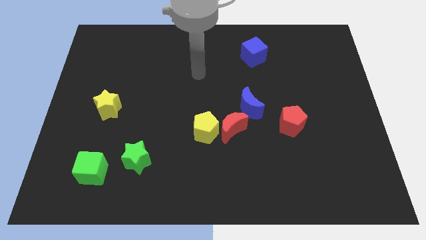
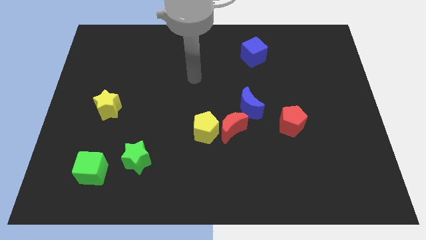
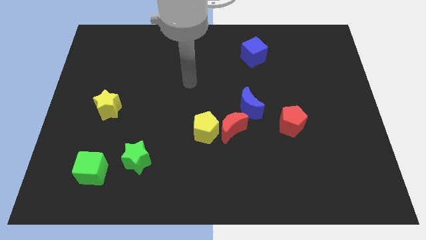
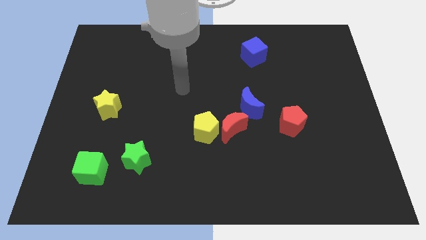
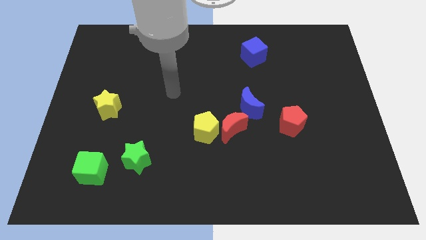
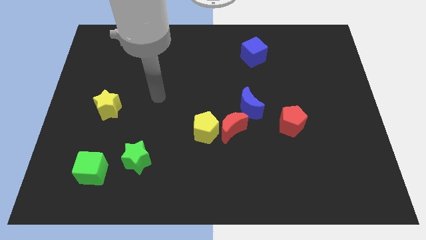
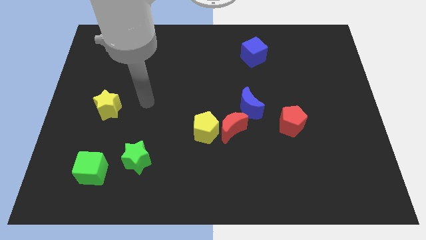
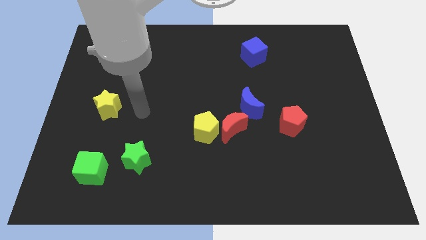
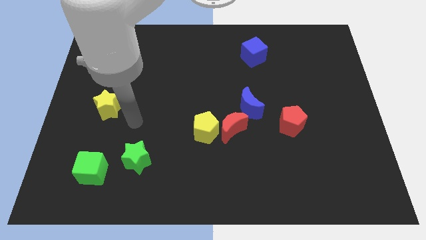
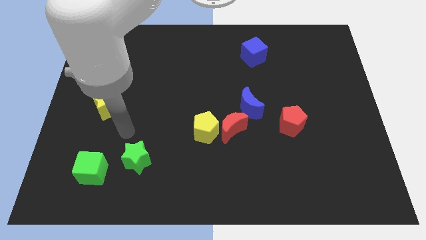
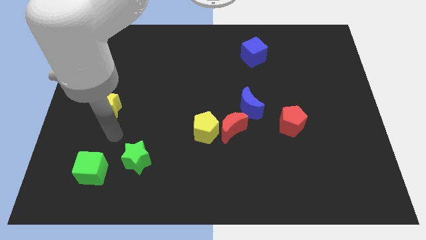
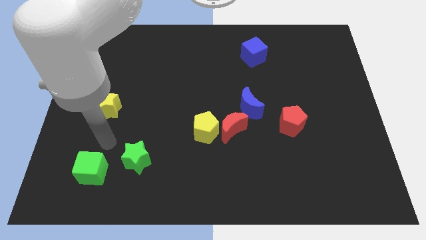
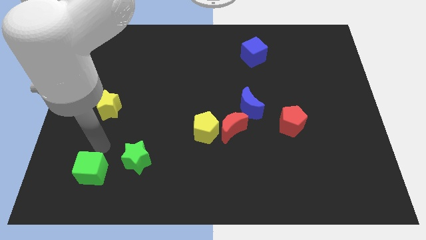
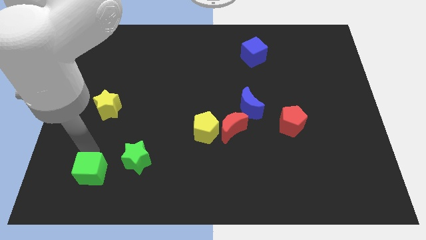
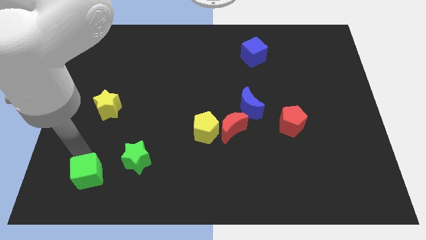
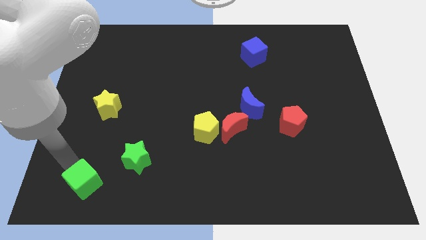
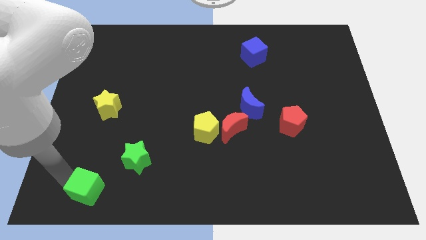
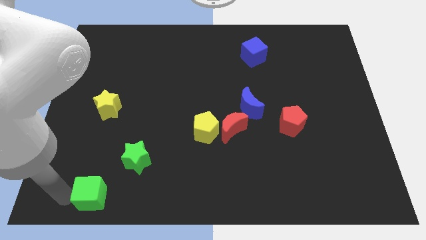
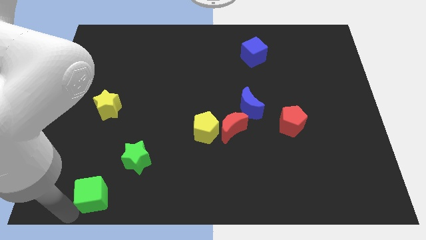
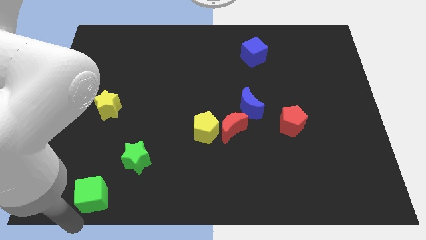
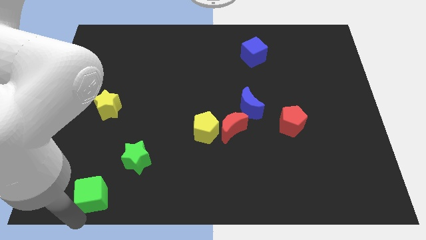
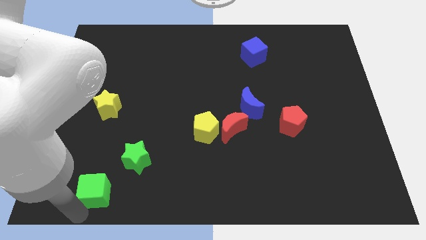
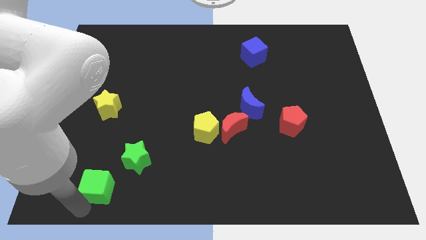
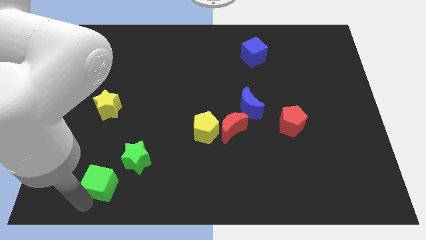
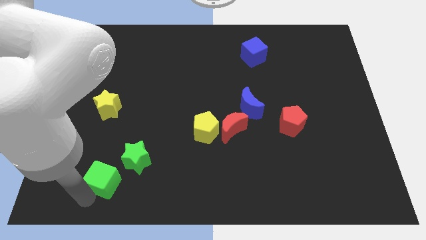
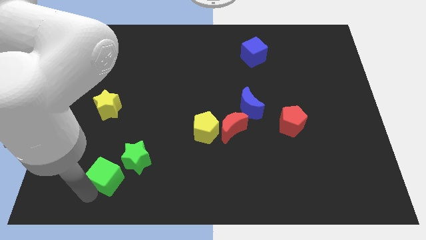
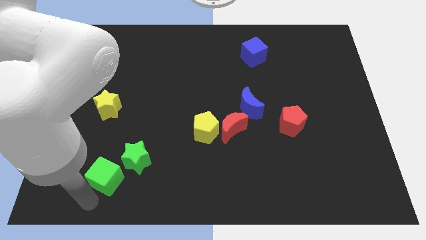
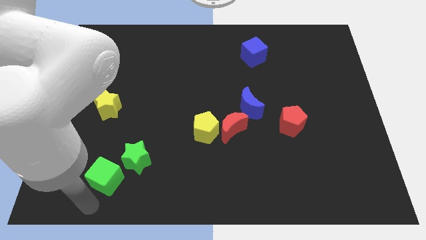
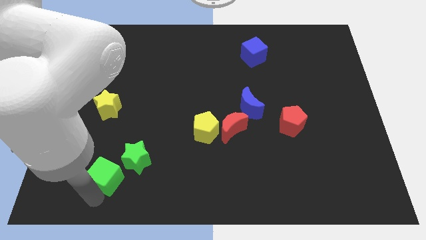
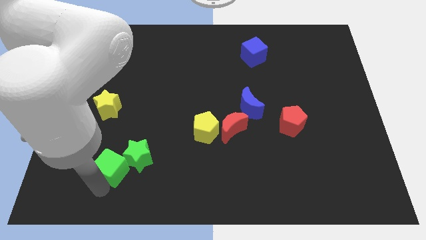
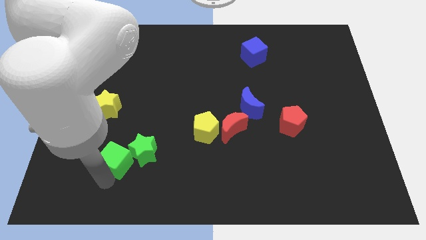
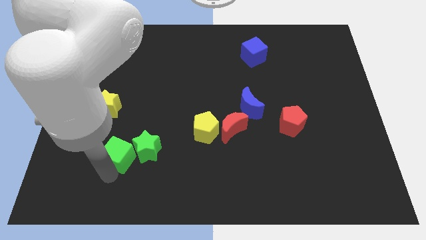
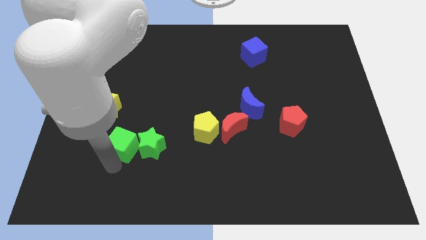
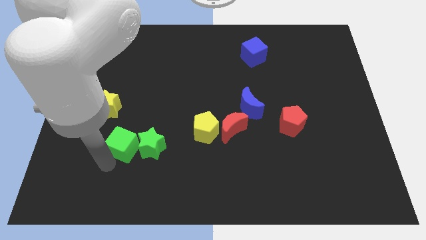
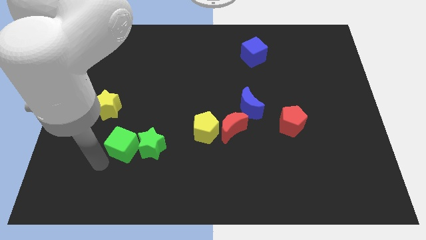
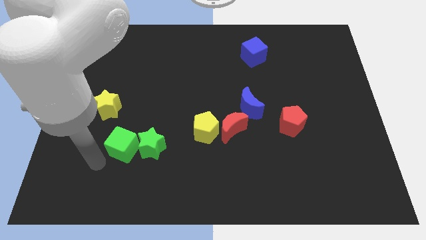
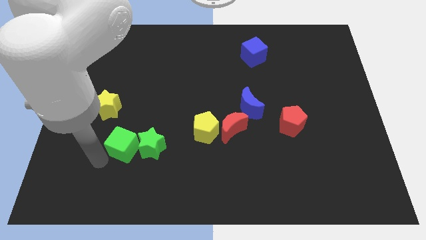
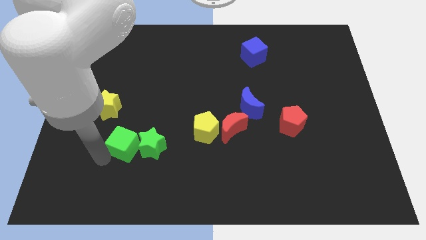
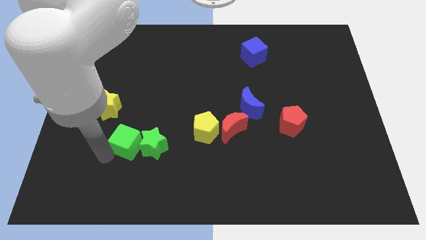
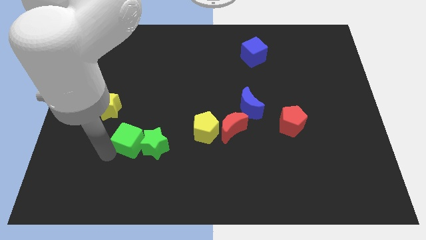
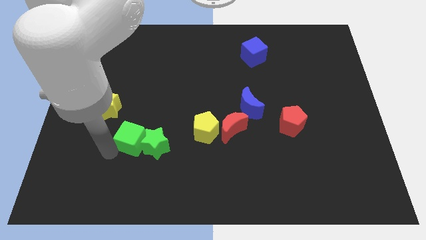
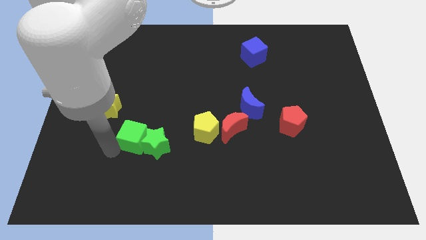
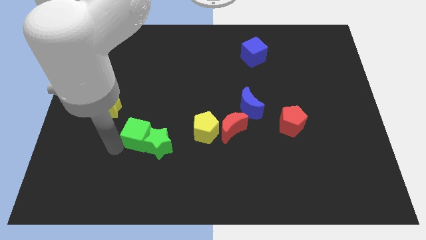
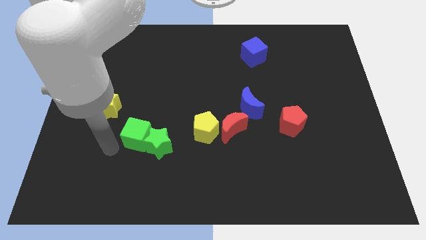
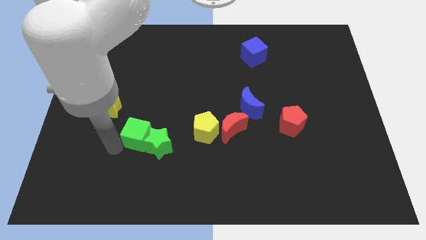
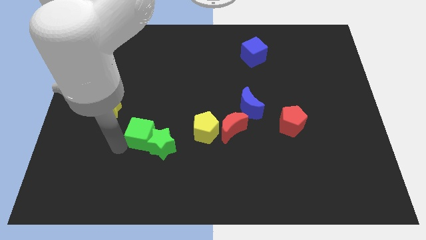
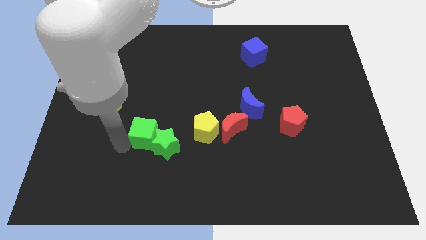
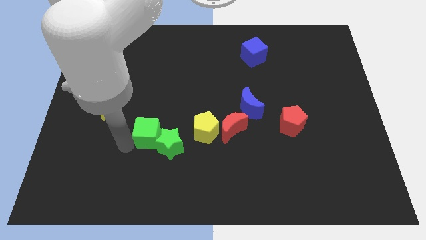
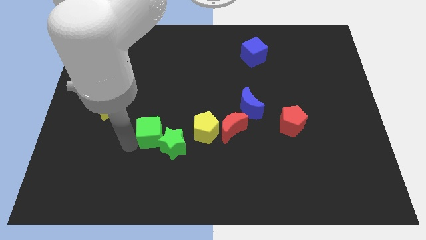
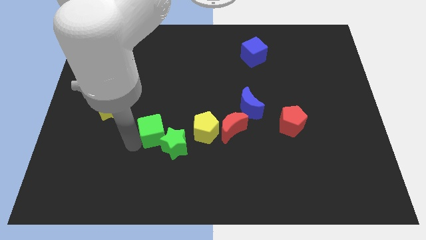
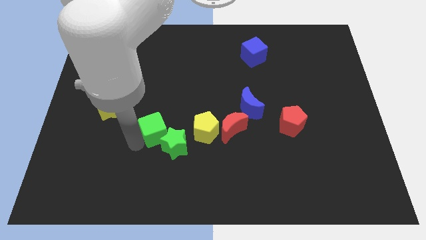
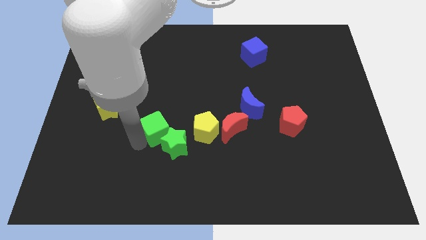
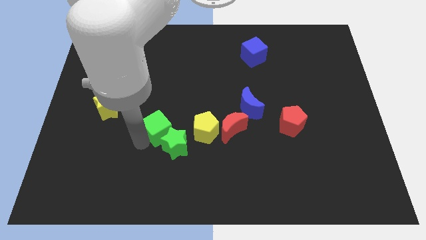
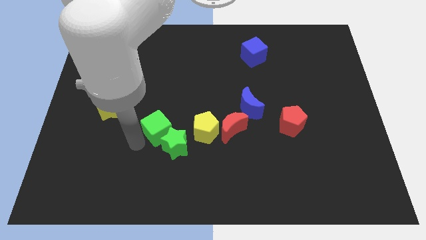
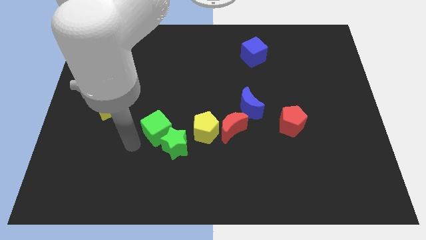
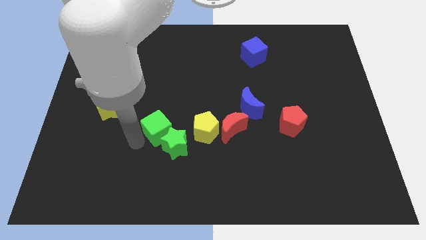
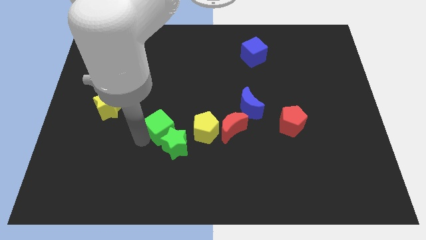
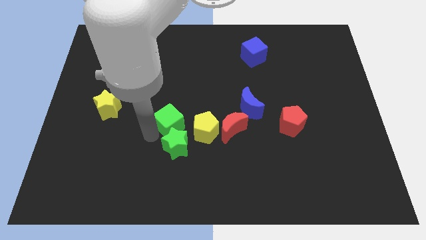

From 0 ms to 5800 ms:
push the green cube to the middle

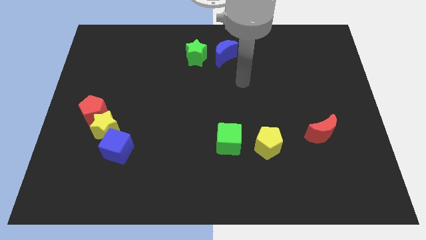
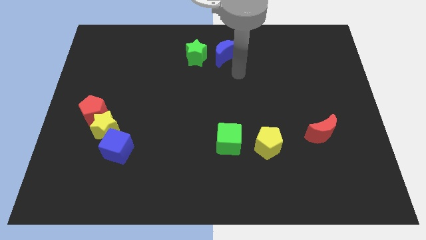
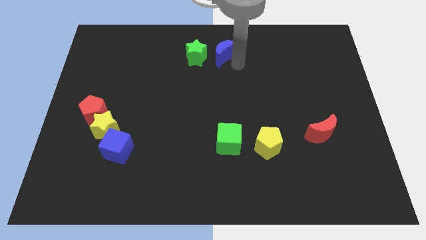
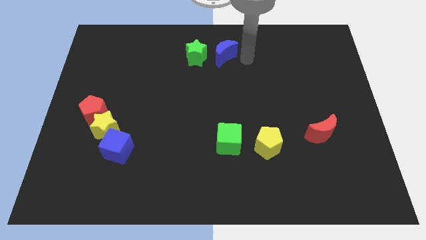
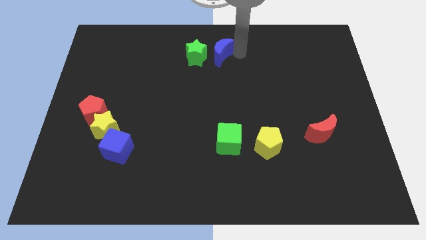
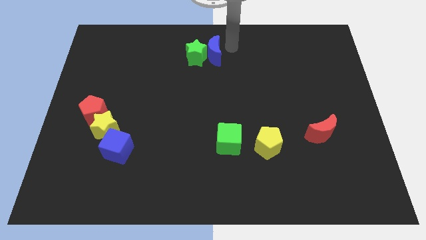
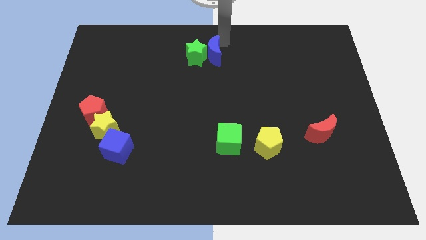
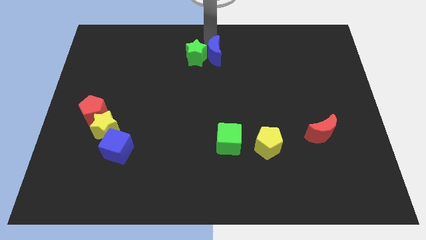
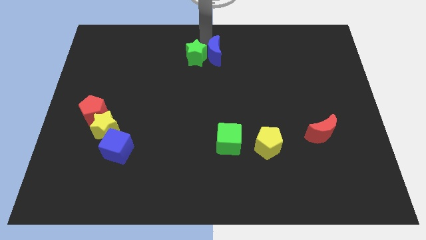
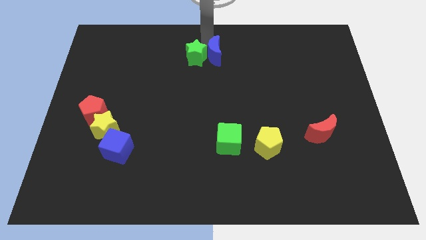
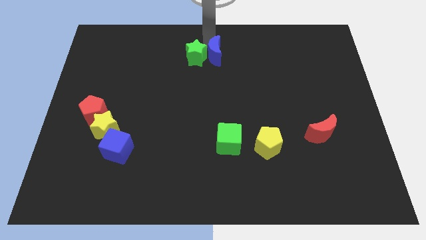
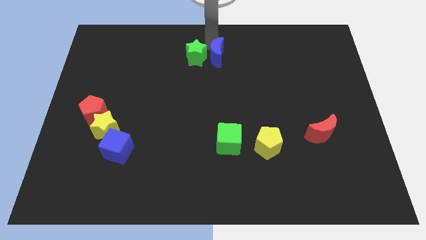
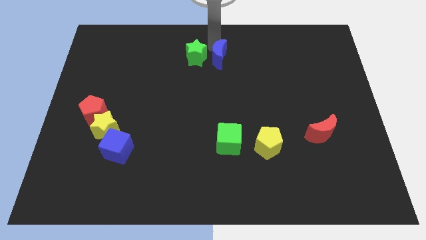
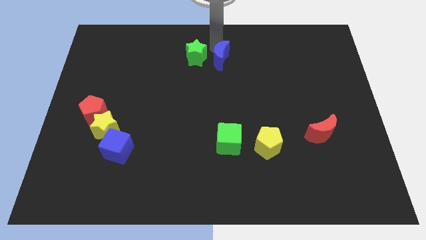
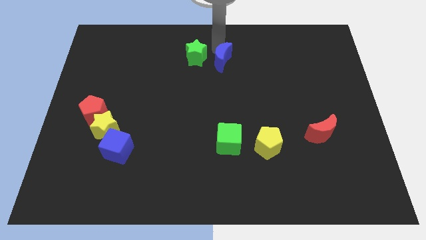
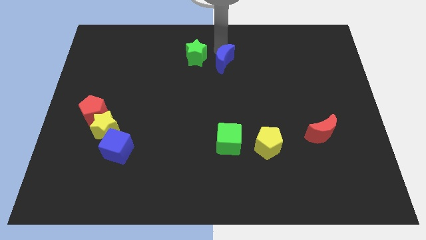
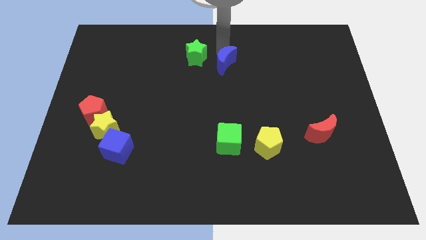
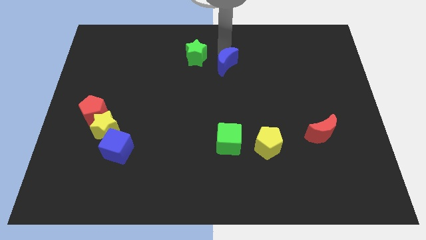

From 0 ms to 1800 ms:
slide the blue moon to the center of the board
